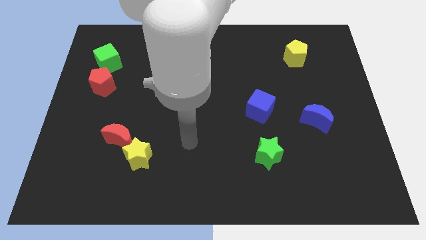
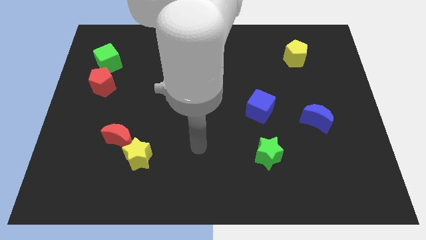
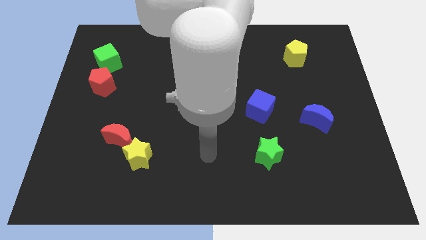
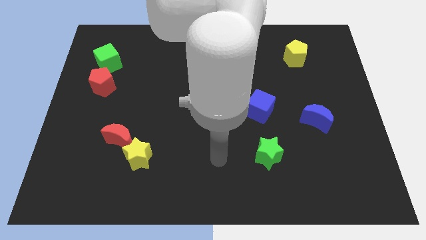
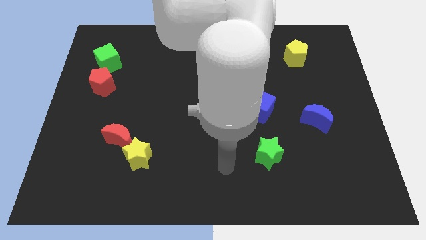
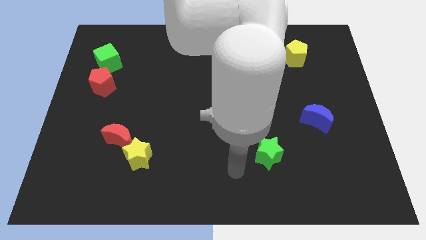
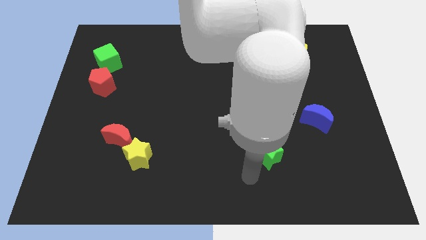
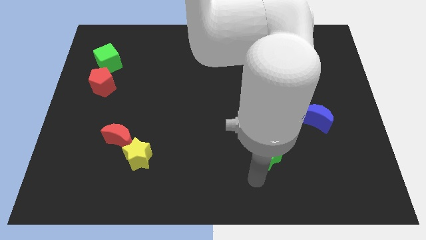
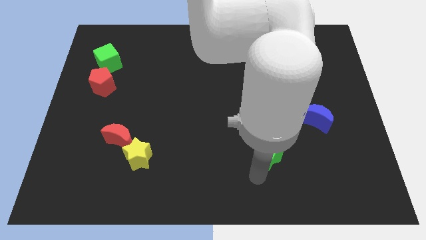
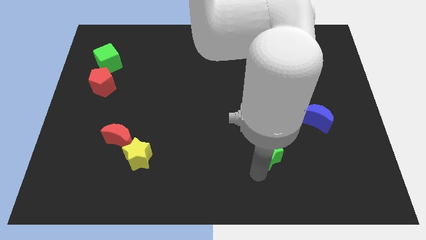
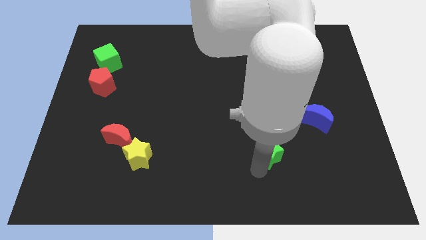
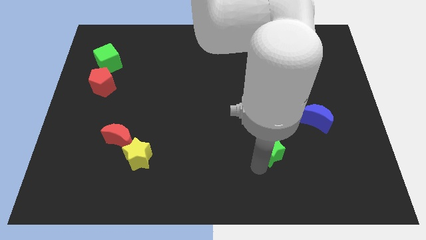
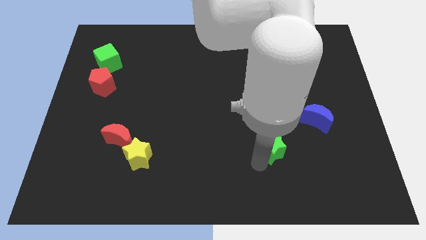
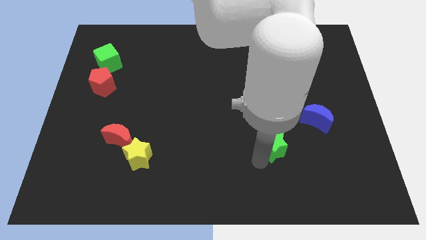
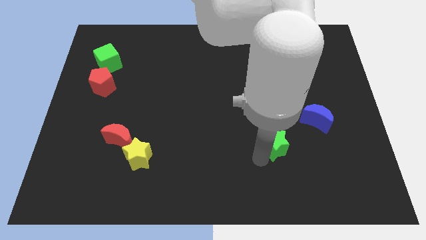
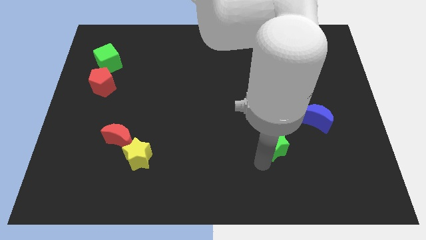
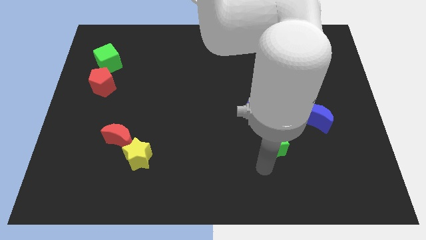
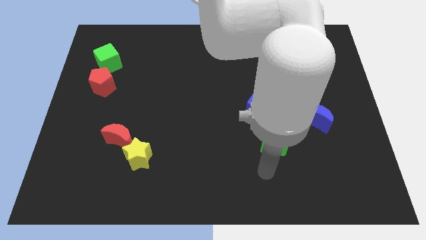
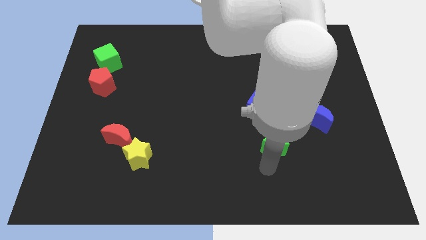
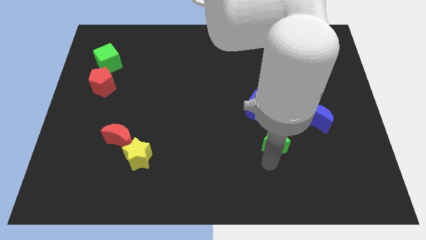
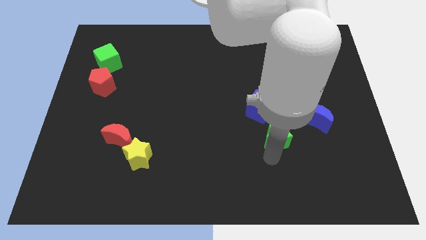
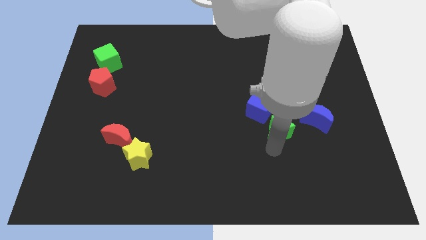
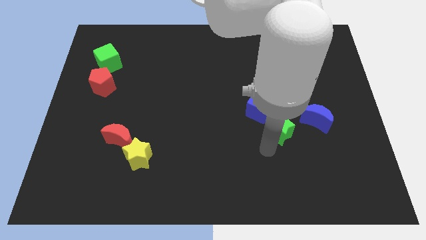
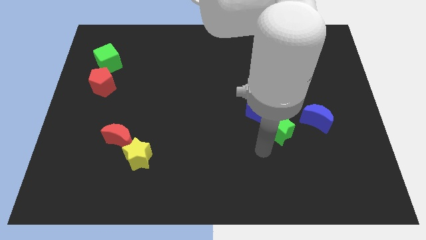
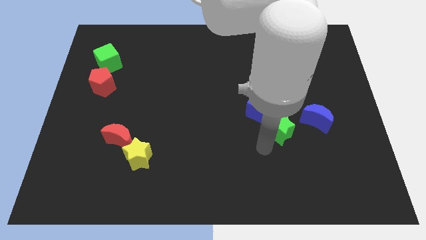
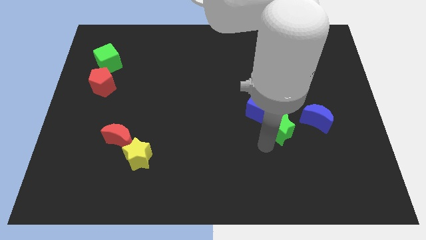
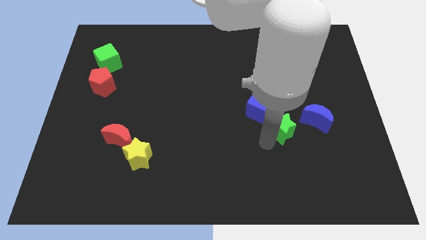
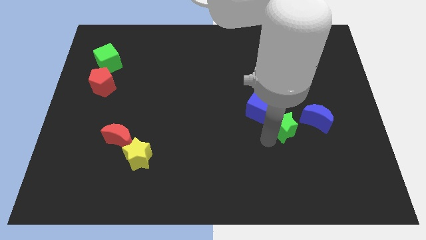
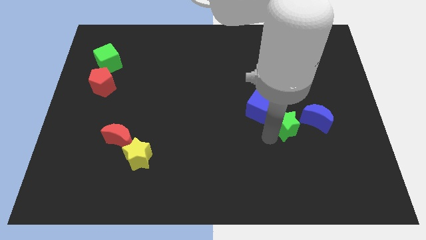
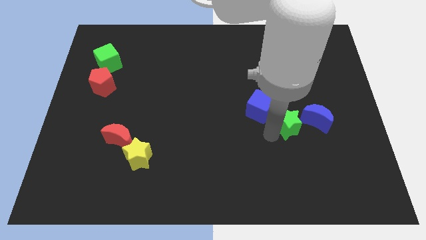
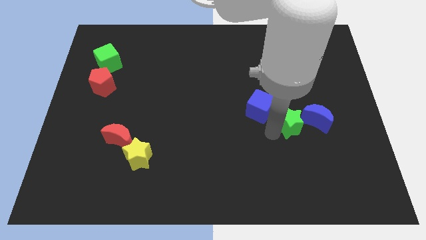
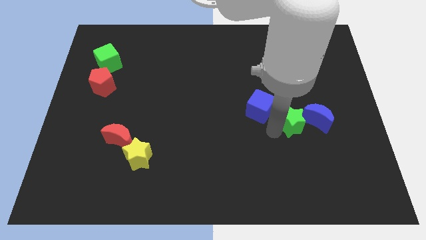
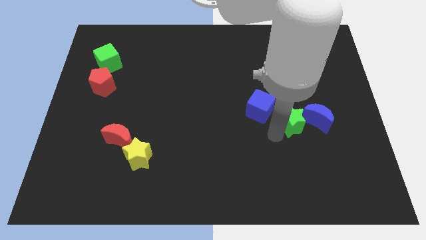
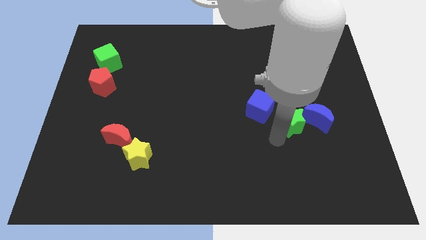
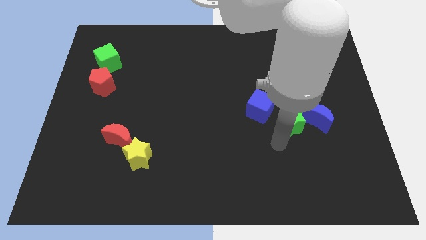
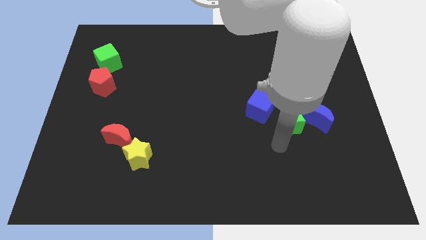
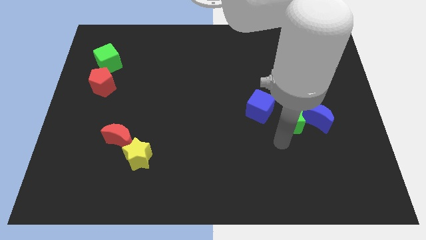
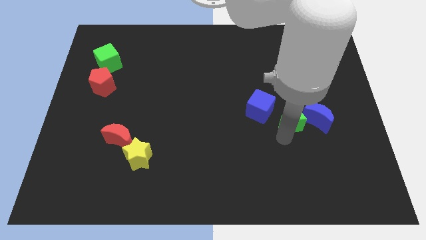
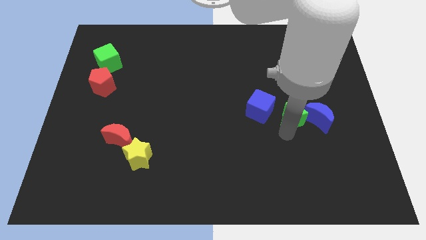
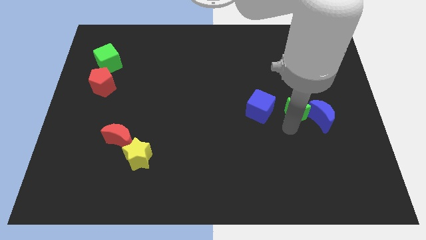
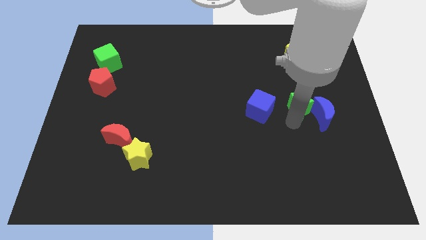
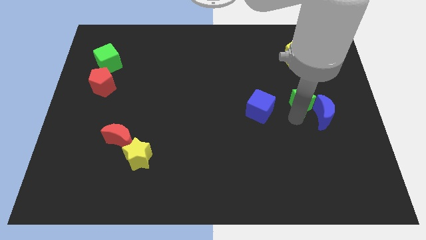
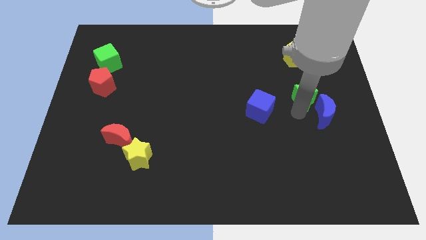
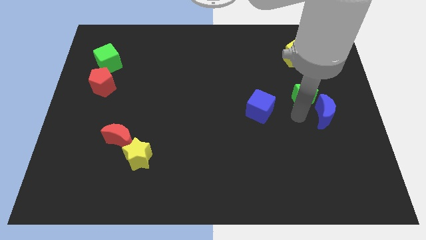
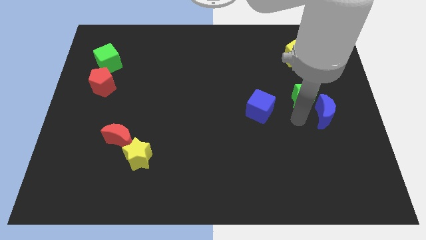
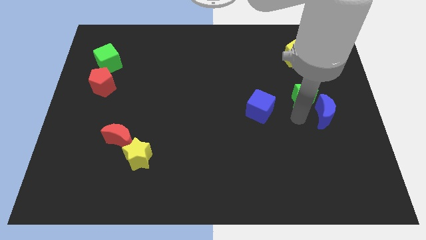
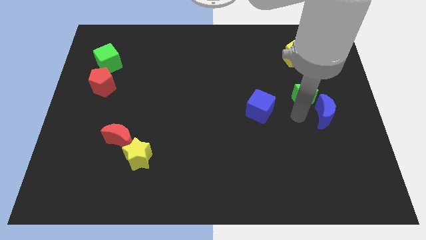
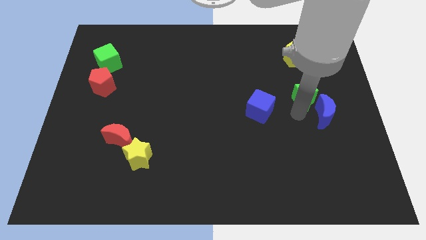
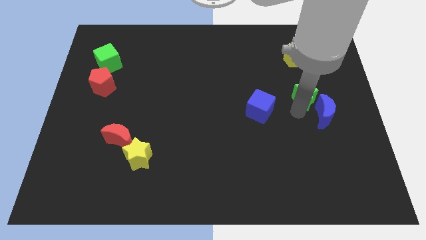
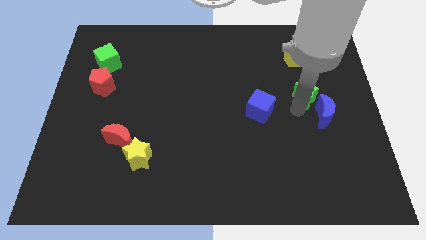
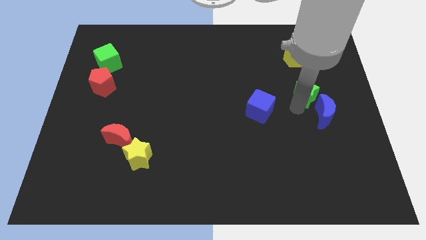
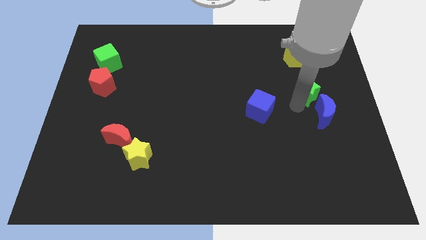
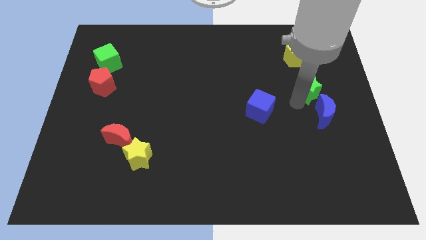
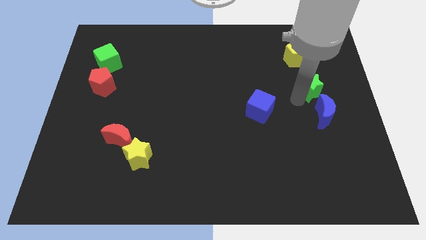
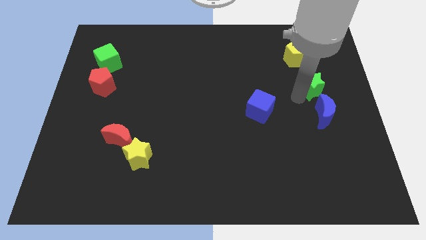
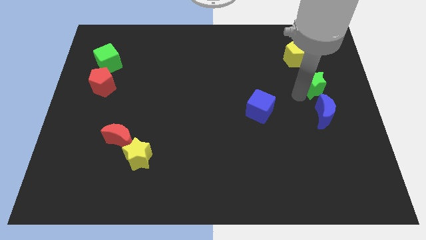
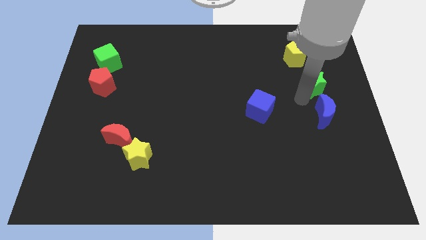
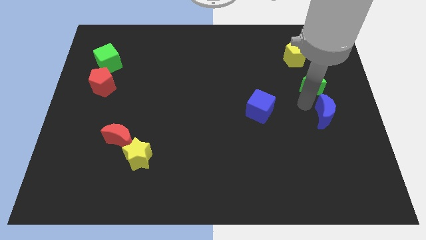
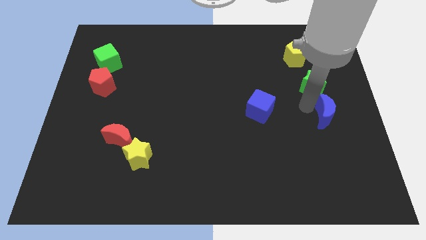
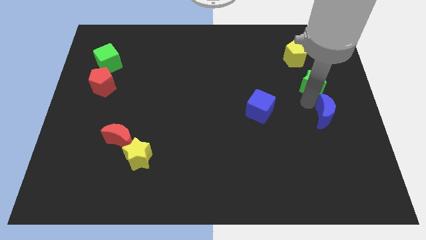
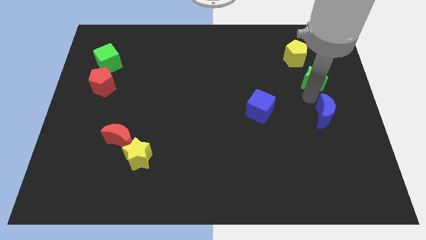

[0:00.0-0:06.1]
put the green star diagonally down and to the right of the yellow pentagon

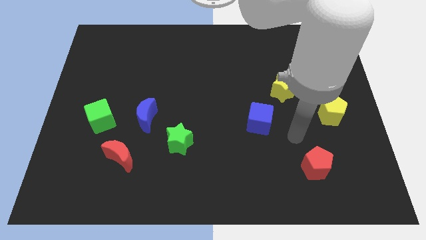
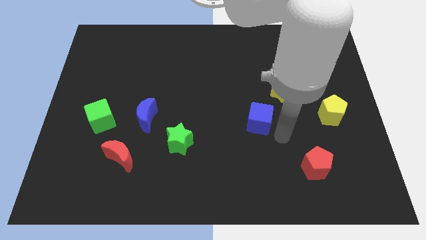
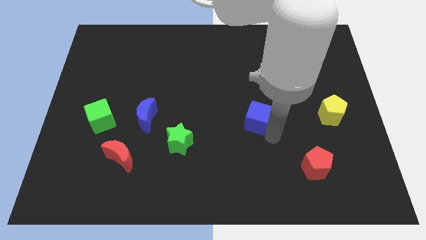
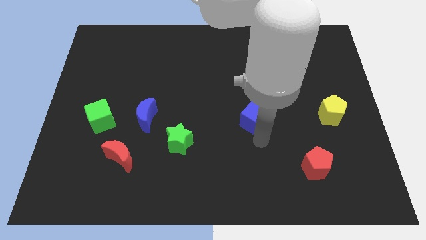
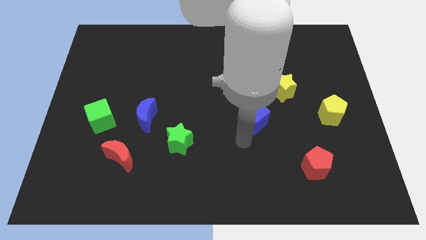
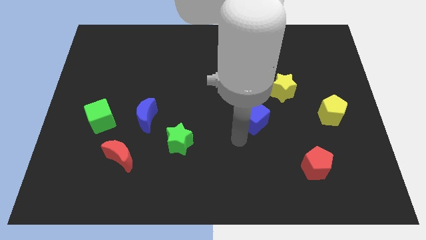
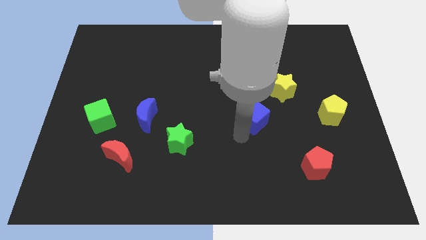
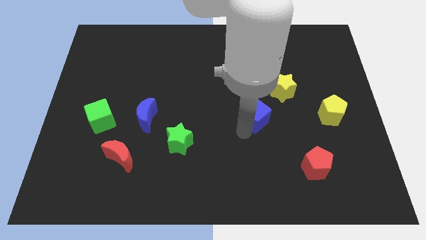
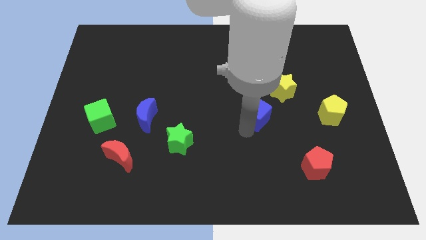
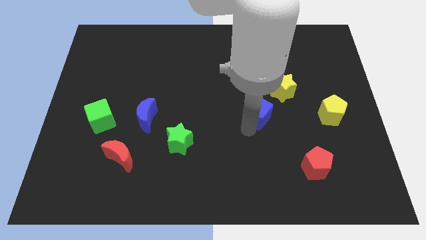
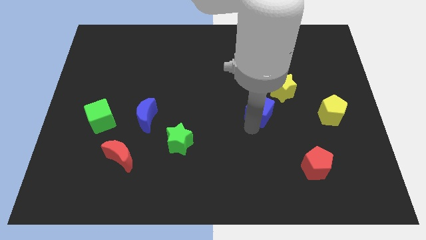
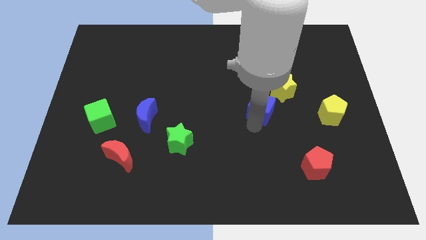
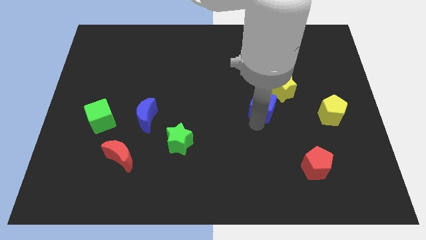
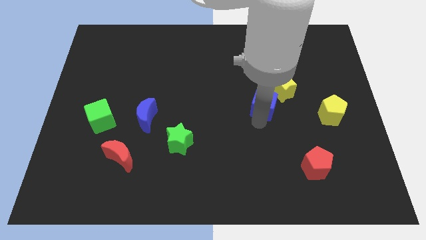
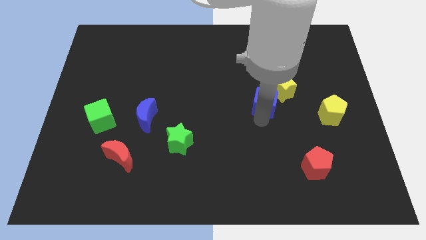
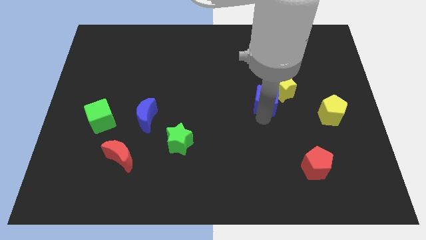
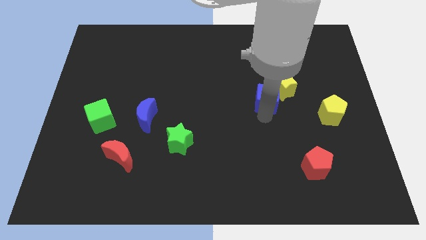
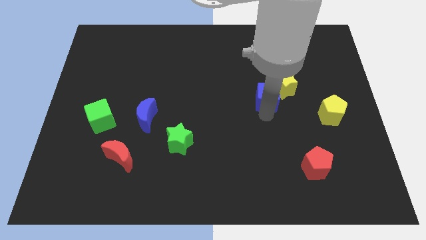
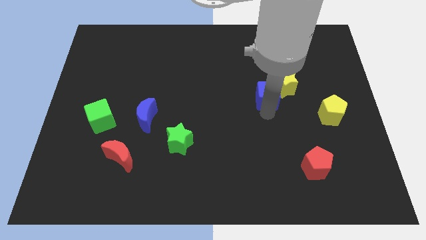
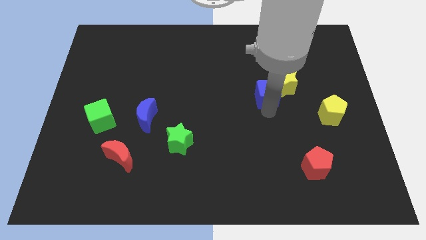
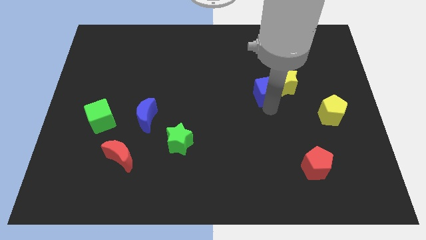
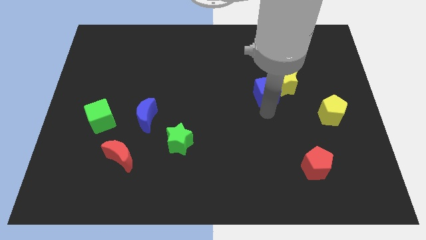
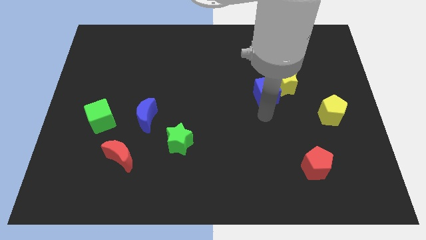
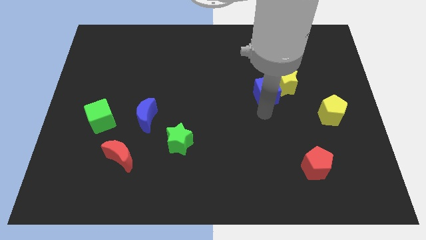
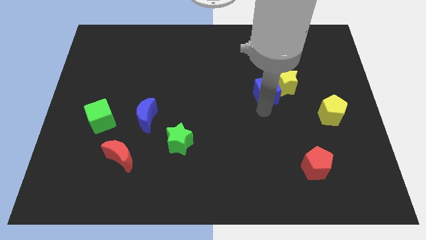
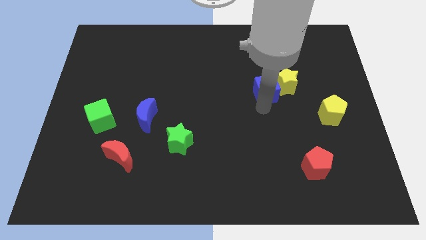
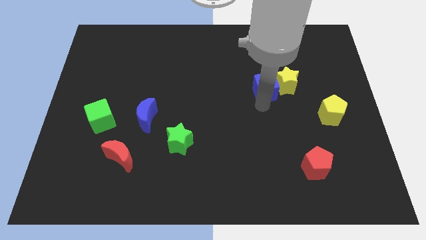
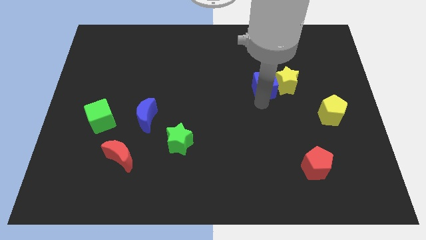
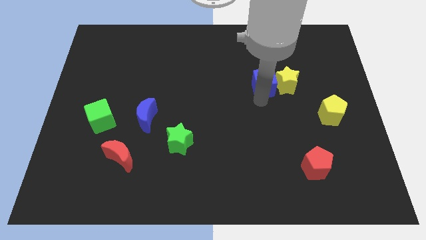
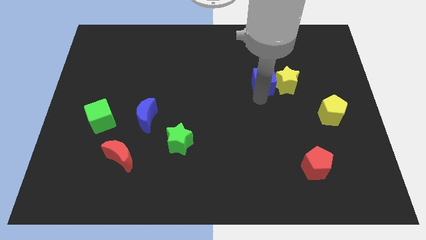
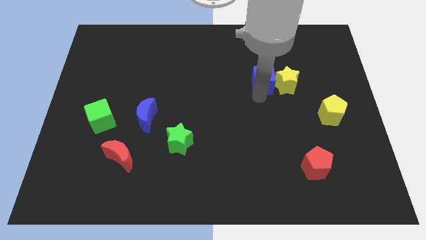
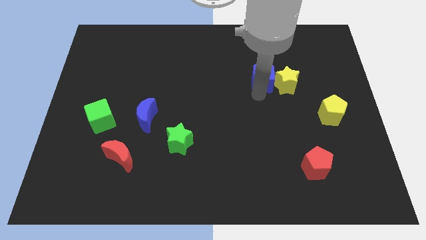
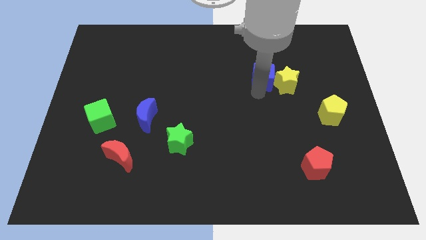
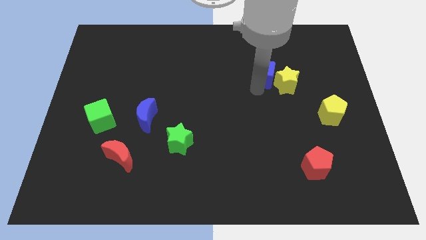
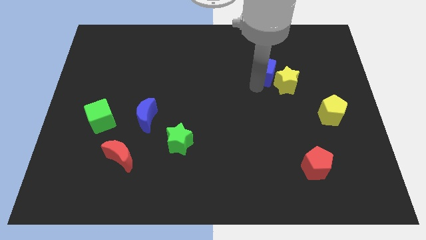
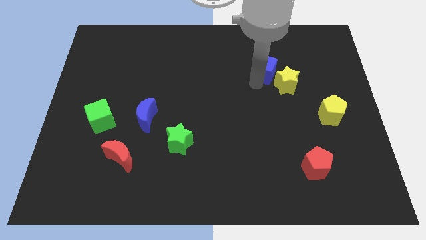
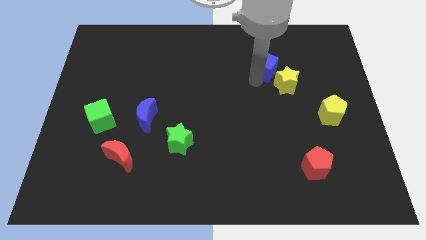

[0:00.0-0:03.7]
put the blue cube to the top of the yellow star
